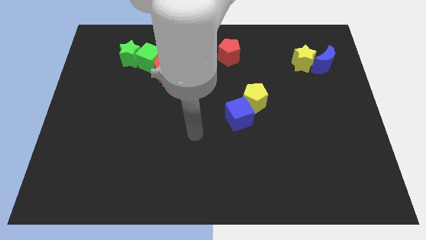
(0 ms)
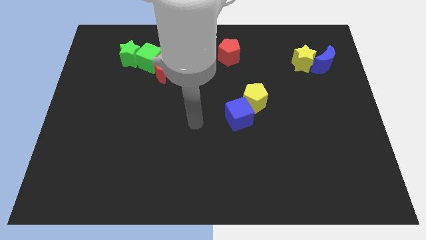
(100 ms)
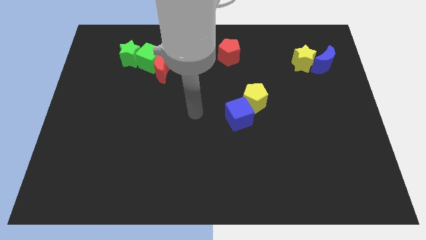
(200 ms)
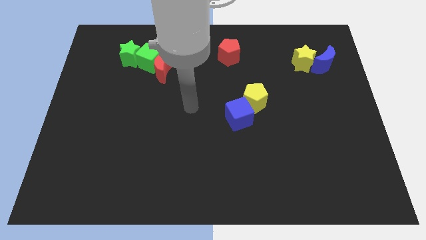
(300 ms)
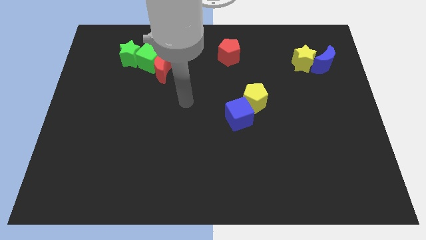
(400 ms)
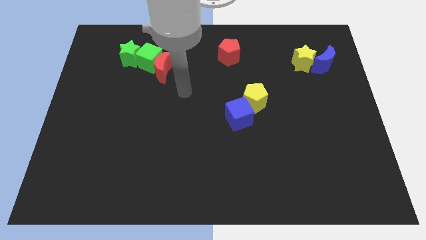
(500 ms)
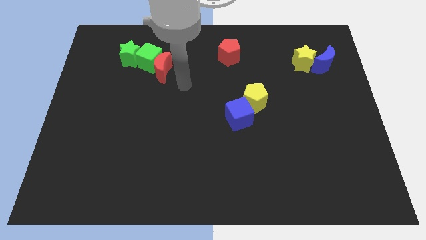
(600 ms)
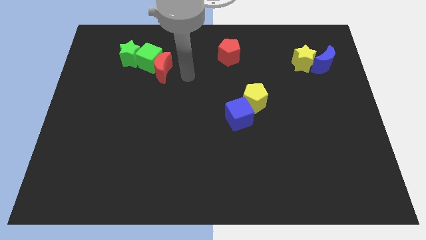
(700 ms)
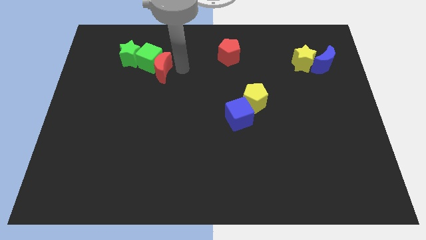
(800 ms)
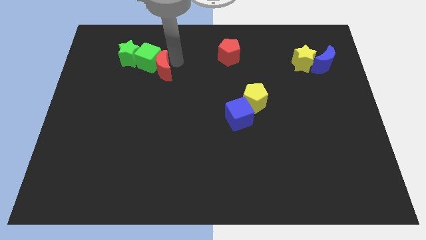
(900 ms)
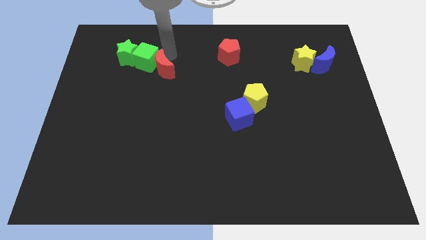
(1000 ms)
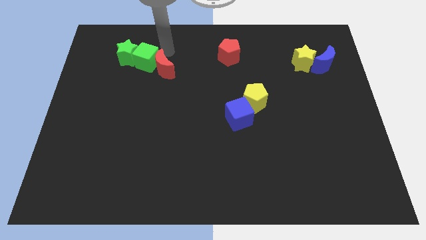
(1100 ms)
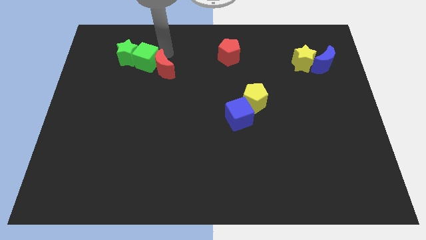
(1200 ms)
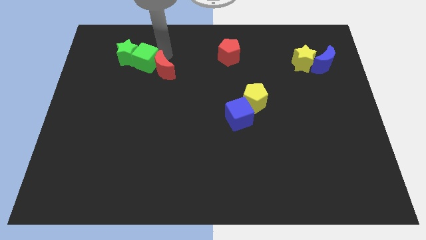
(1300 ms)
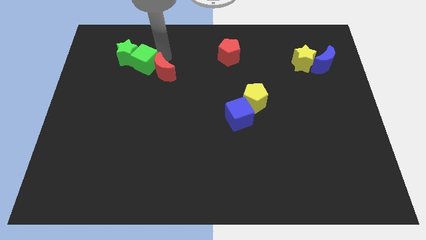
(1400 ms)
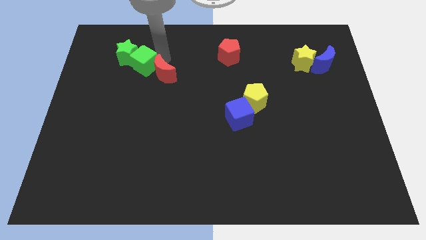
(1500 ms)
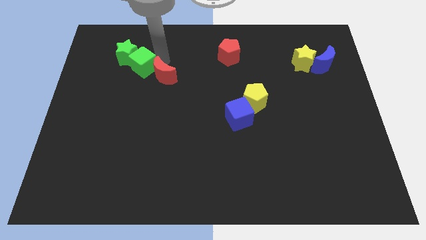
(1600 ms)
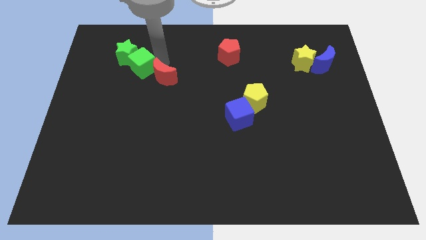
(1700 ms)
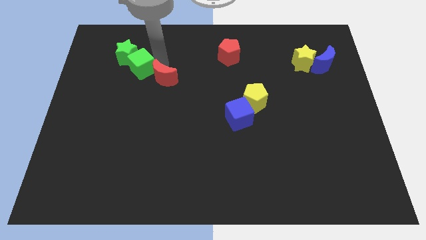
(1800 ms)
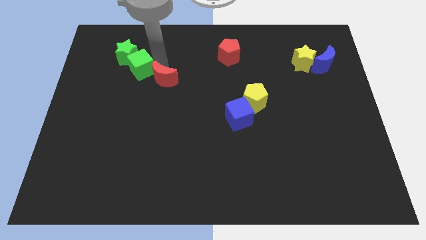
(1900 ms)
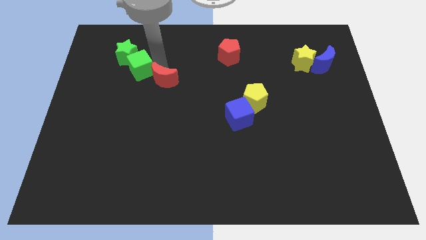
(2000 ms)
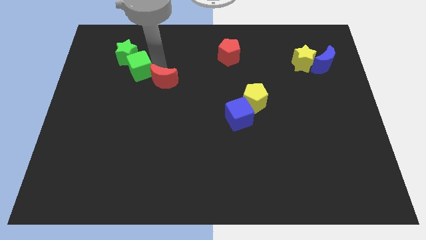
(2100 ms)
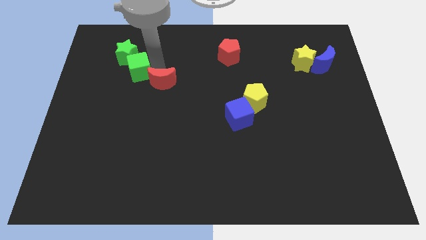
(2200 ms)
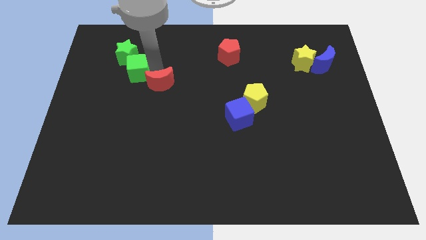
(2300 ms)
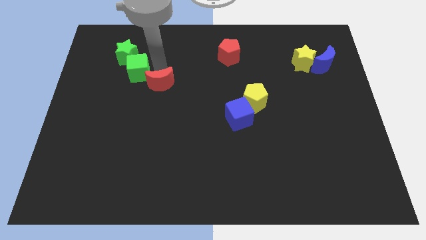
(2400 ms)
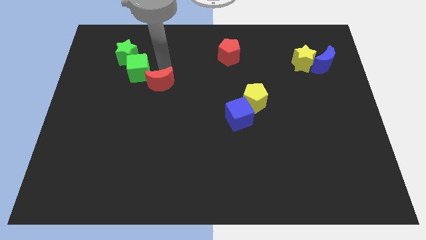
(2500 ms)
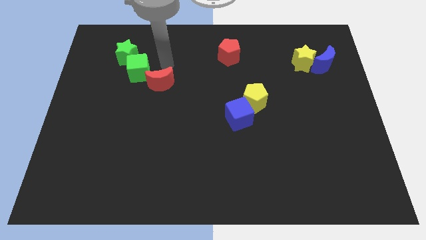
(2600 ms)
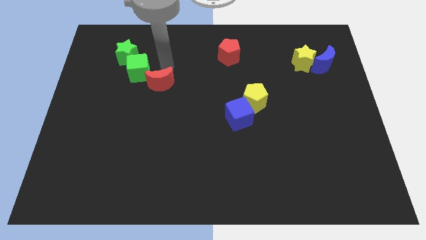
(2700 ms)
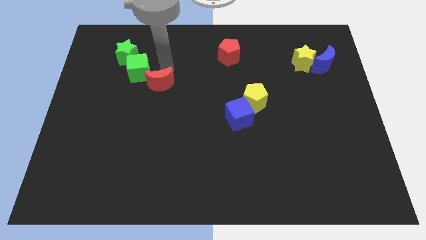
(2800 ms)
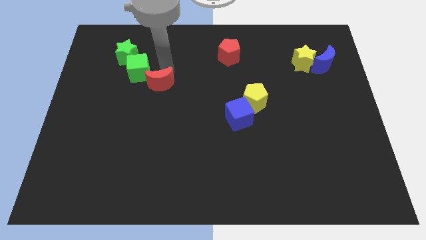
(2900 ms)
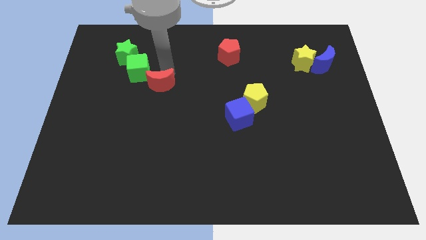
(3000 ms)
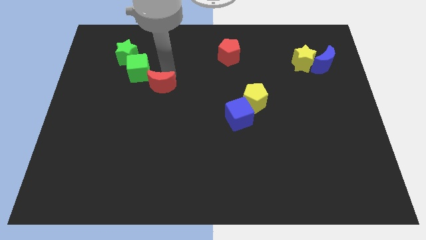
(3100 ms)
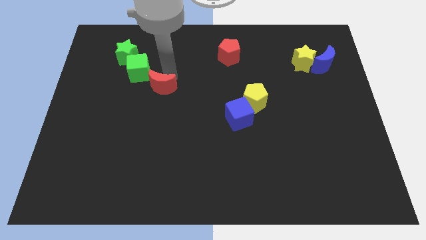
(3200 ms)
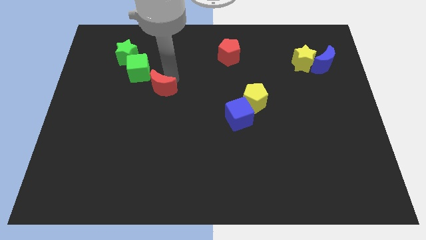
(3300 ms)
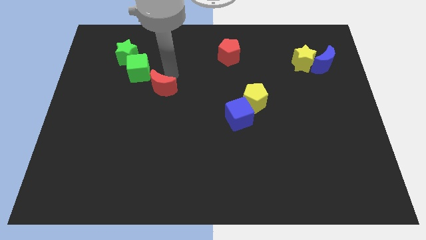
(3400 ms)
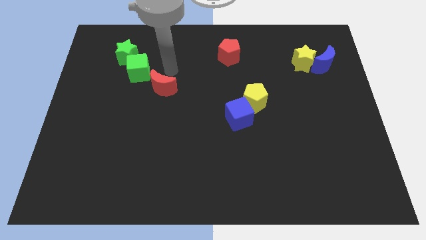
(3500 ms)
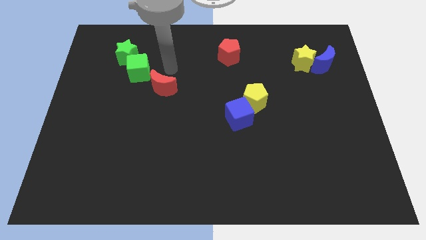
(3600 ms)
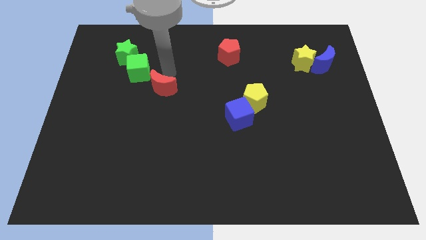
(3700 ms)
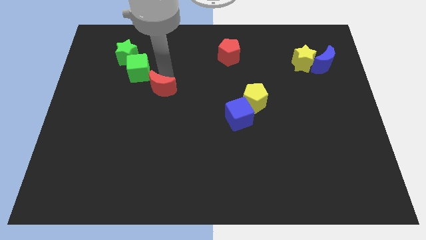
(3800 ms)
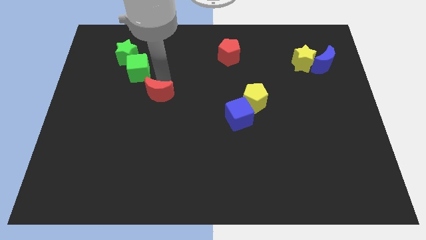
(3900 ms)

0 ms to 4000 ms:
move the red moon downwards somewhat

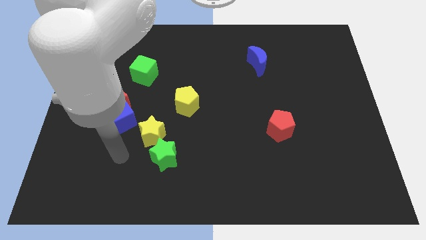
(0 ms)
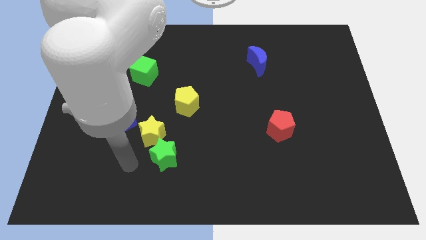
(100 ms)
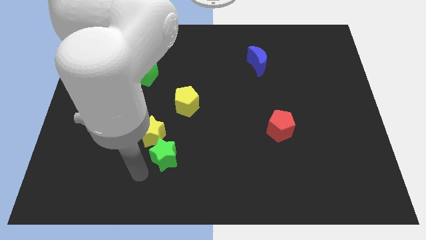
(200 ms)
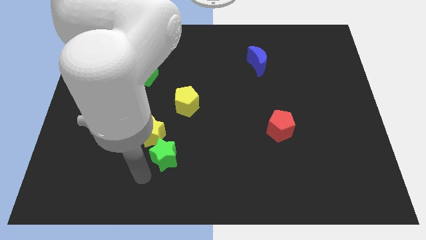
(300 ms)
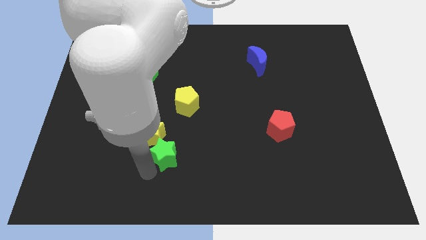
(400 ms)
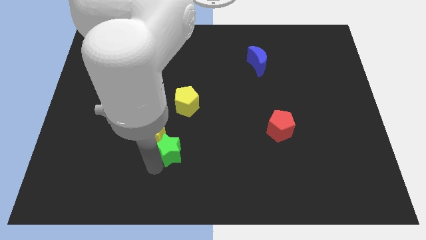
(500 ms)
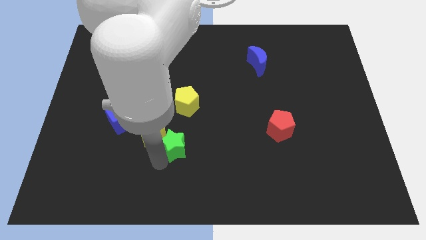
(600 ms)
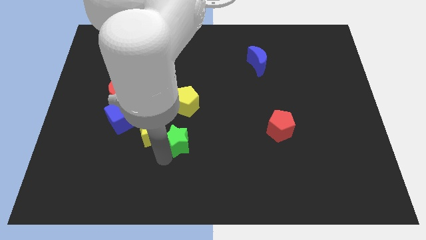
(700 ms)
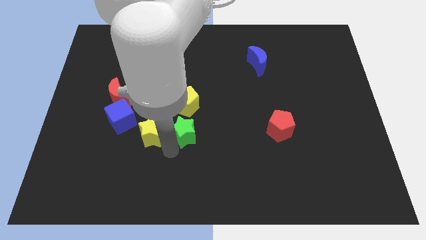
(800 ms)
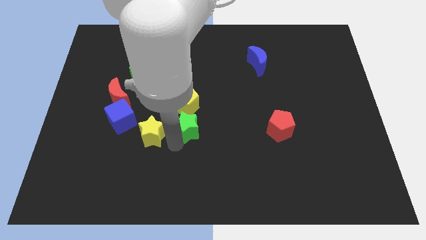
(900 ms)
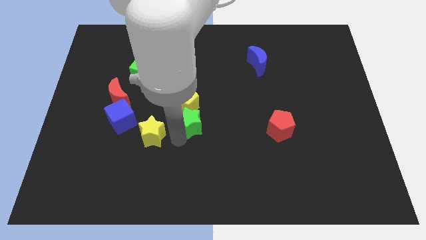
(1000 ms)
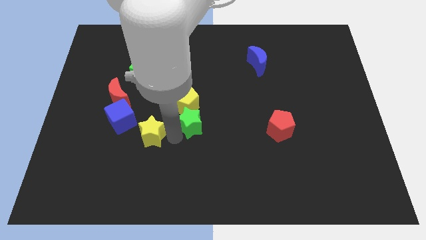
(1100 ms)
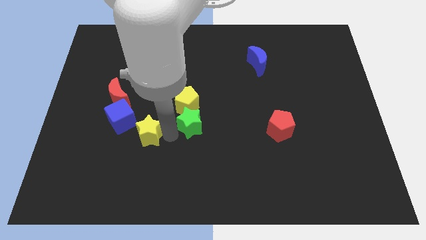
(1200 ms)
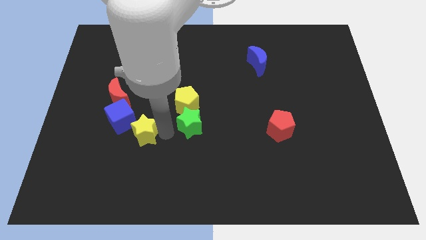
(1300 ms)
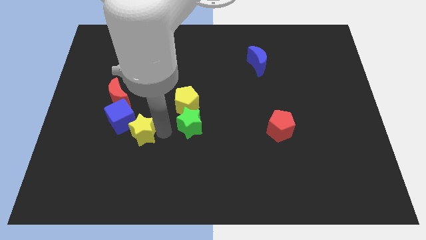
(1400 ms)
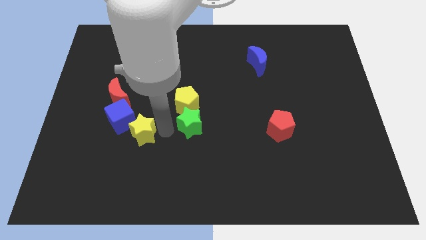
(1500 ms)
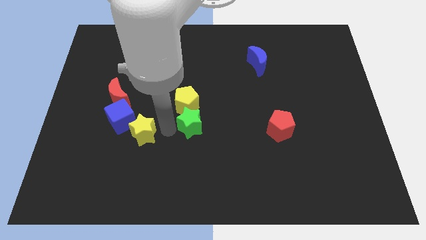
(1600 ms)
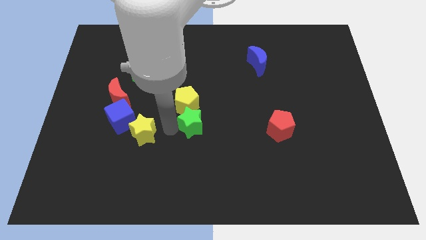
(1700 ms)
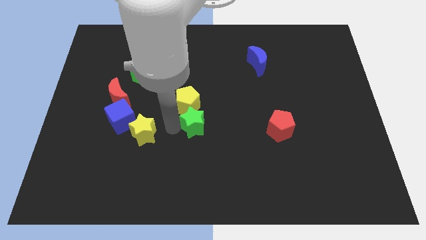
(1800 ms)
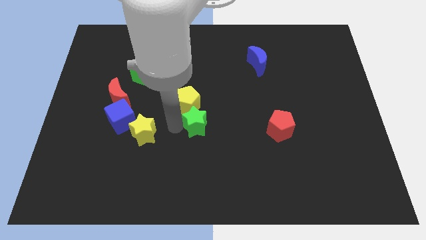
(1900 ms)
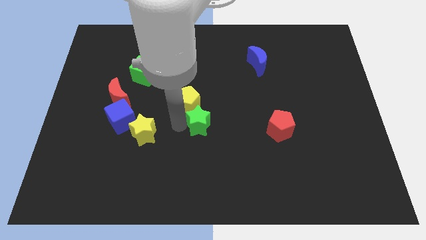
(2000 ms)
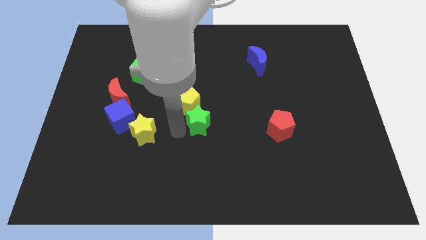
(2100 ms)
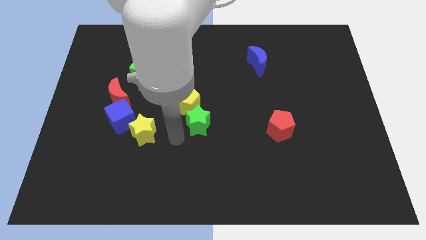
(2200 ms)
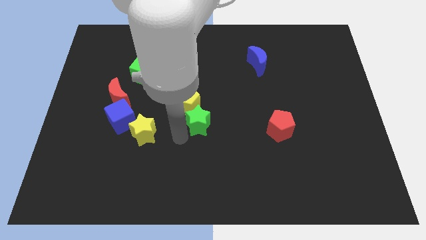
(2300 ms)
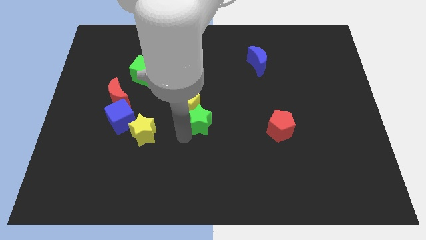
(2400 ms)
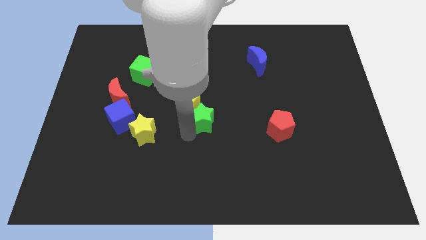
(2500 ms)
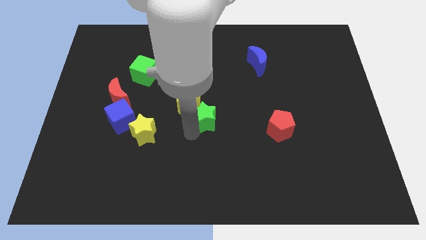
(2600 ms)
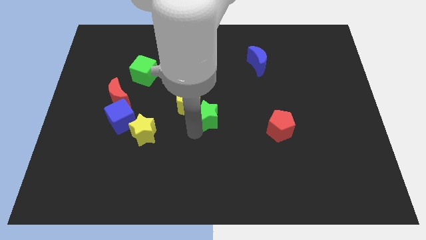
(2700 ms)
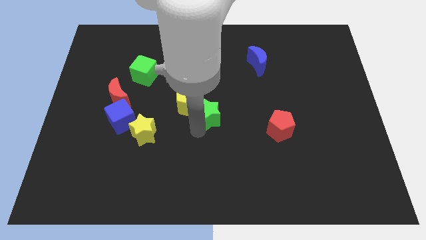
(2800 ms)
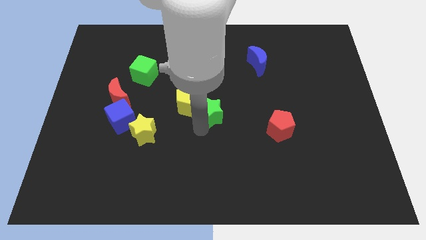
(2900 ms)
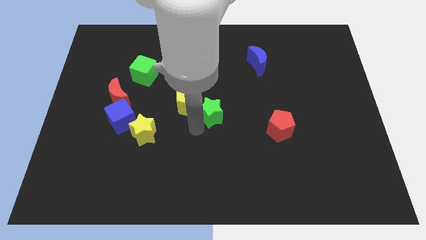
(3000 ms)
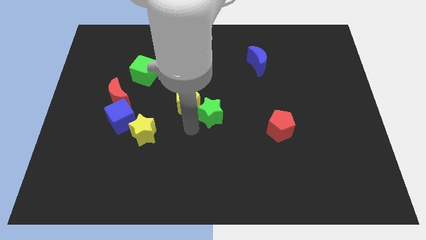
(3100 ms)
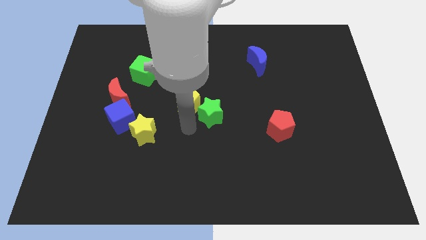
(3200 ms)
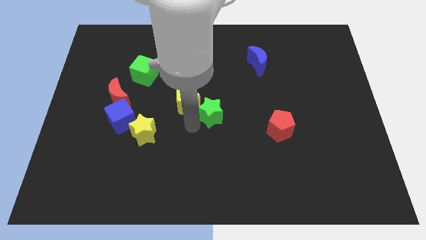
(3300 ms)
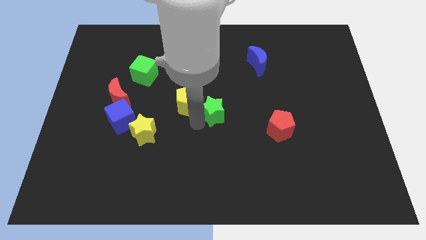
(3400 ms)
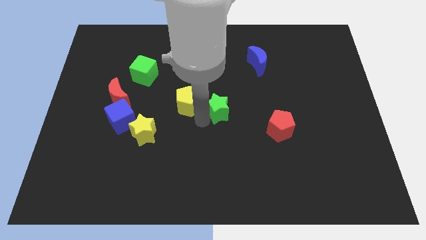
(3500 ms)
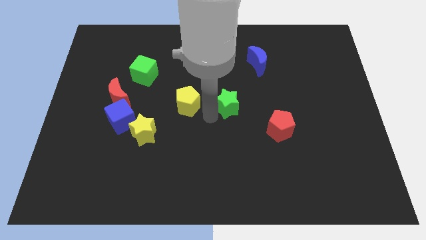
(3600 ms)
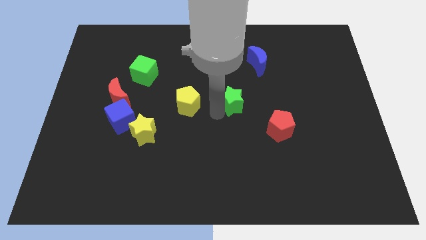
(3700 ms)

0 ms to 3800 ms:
move the green star up and then to the right

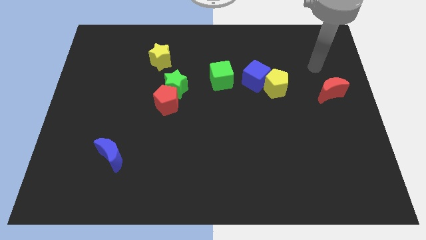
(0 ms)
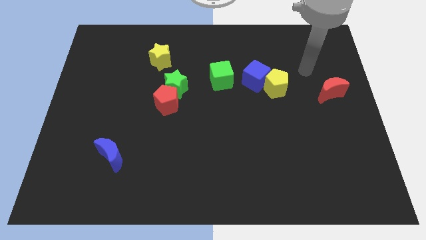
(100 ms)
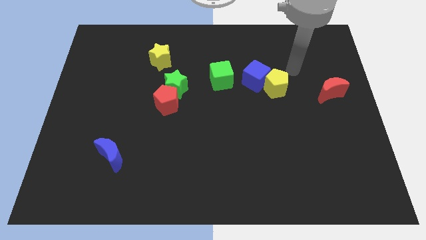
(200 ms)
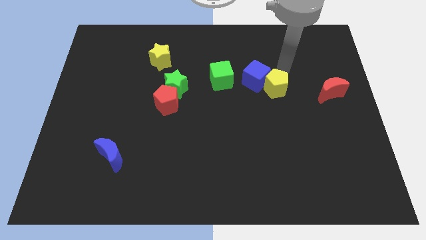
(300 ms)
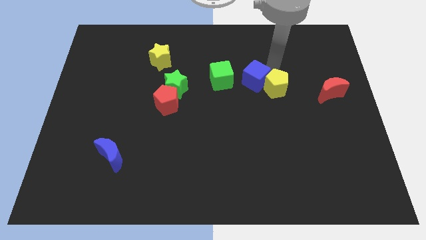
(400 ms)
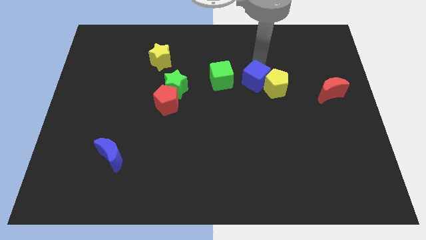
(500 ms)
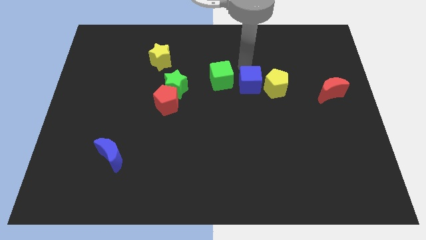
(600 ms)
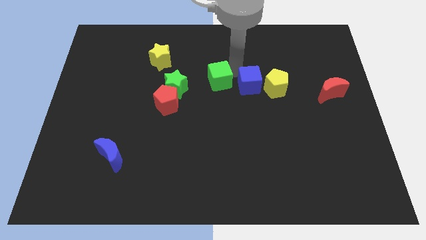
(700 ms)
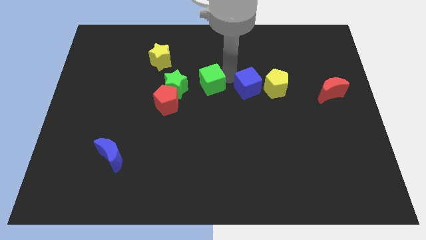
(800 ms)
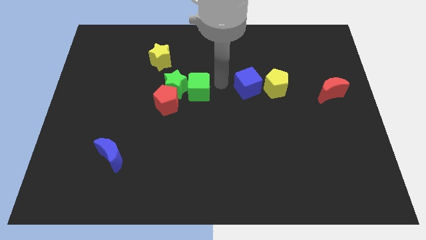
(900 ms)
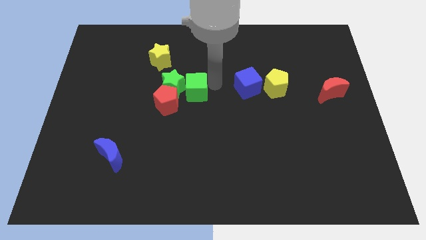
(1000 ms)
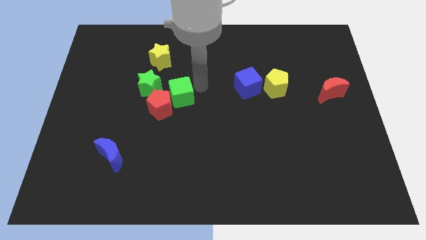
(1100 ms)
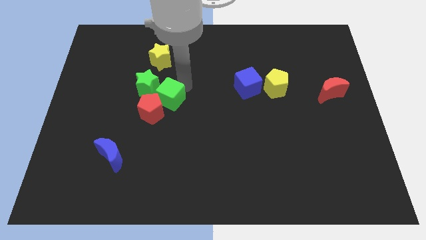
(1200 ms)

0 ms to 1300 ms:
move the green star a little bit to the left
